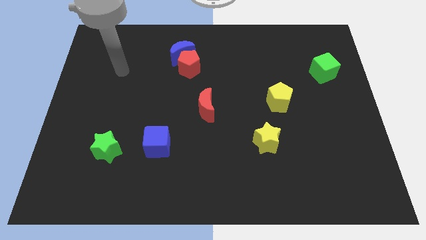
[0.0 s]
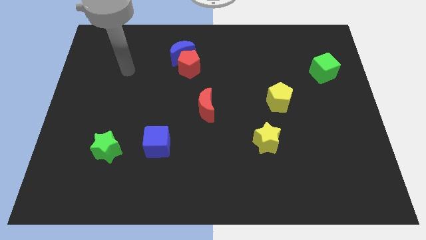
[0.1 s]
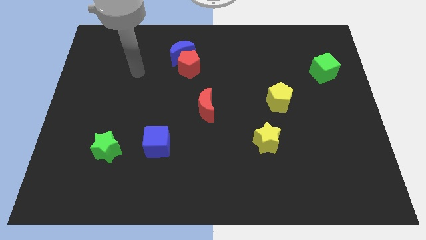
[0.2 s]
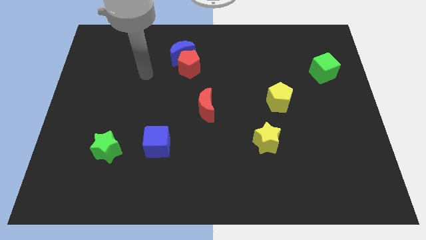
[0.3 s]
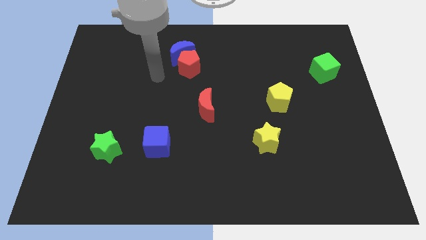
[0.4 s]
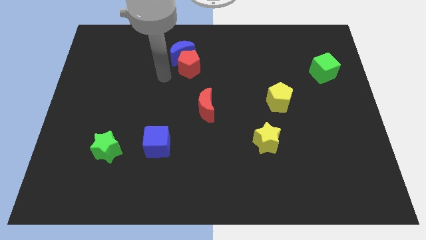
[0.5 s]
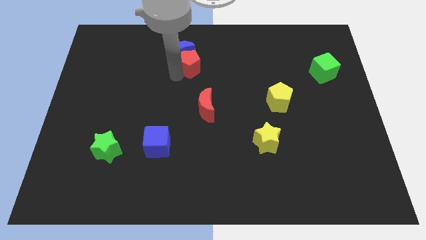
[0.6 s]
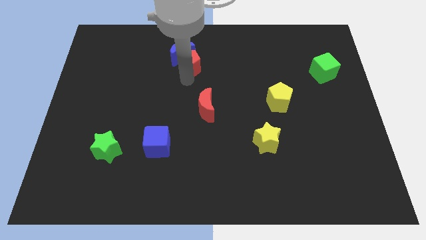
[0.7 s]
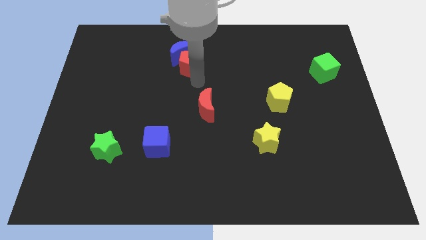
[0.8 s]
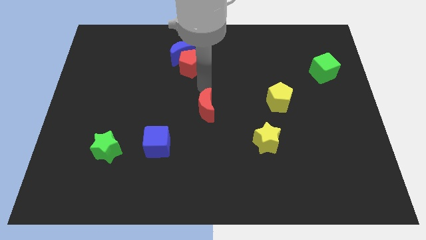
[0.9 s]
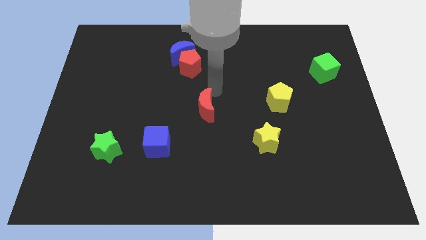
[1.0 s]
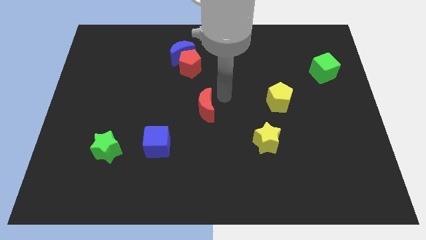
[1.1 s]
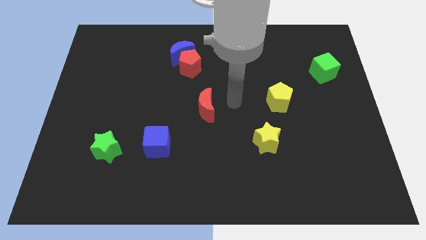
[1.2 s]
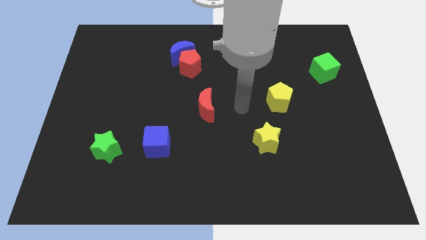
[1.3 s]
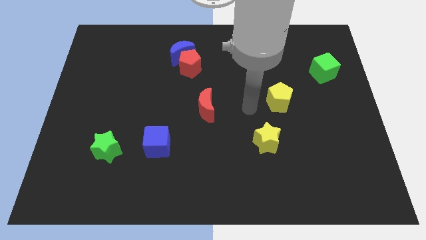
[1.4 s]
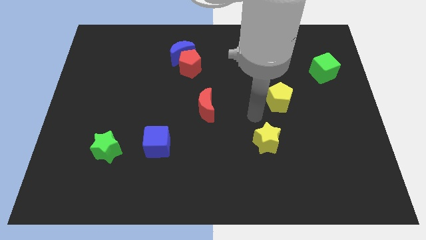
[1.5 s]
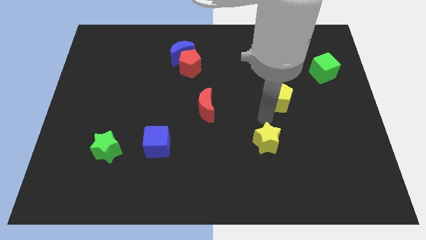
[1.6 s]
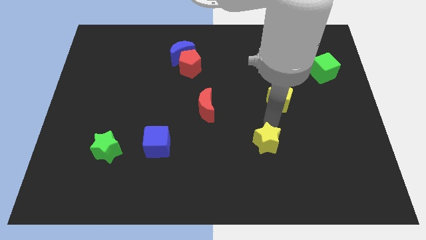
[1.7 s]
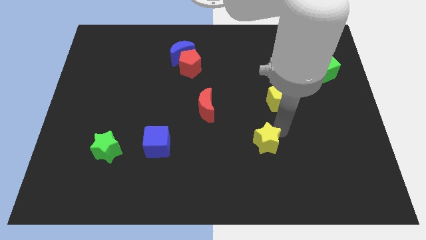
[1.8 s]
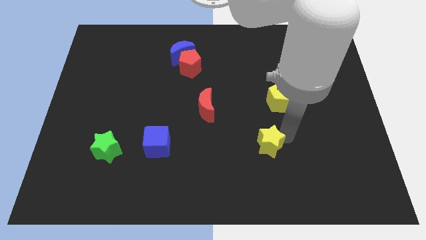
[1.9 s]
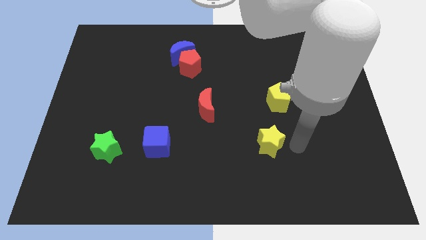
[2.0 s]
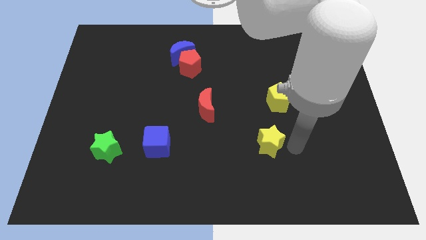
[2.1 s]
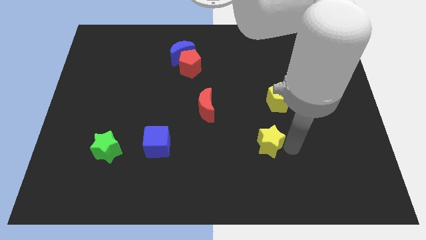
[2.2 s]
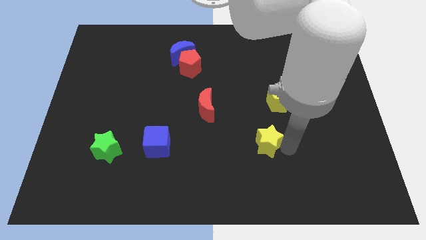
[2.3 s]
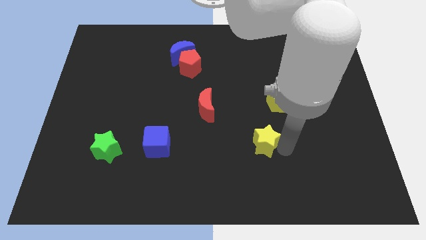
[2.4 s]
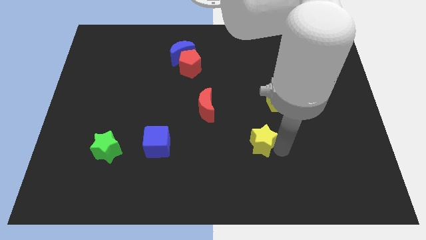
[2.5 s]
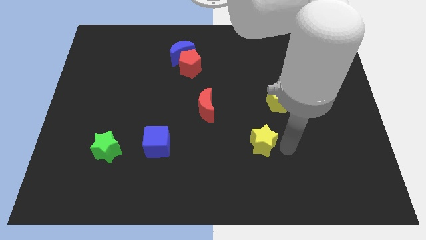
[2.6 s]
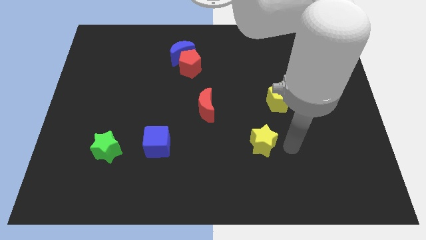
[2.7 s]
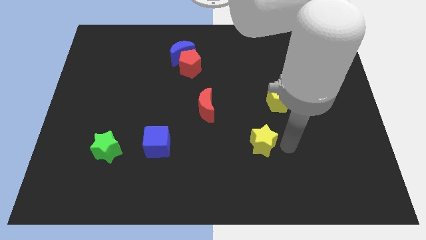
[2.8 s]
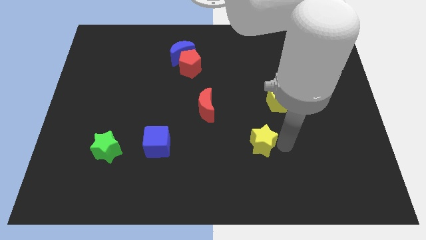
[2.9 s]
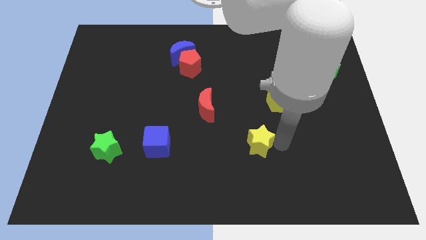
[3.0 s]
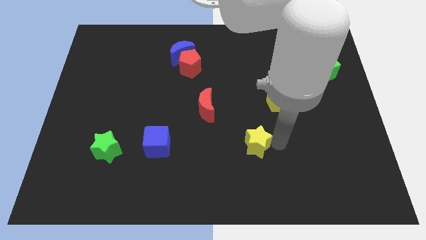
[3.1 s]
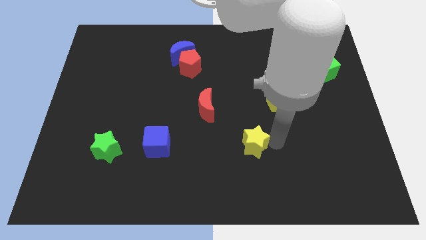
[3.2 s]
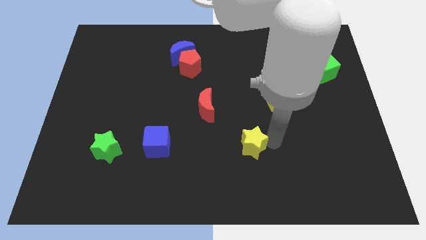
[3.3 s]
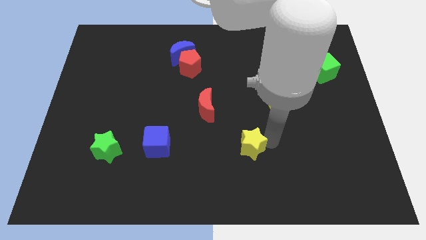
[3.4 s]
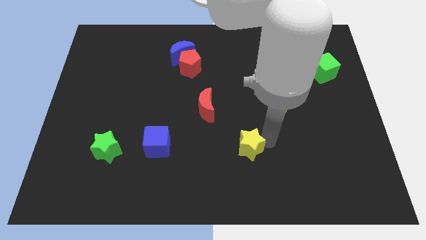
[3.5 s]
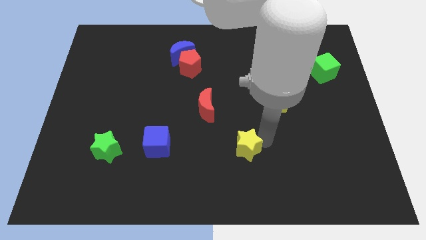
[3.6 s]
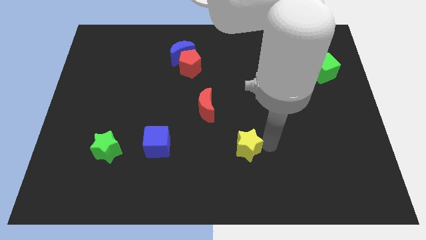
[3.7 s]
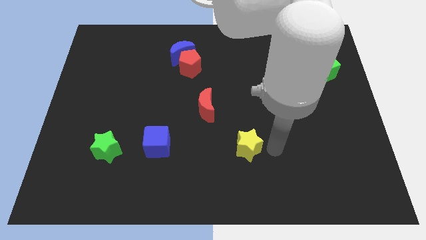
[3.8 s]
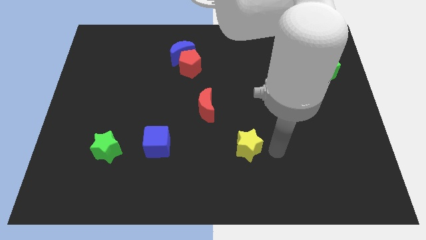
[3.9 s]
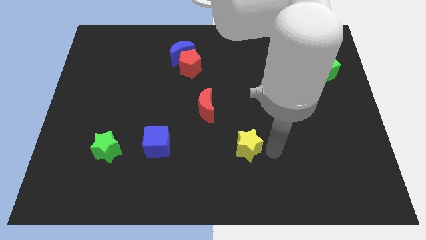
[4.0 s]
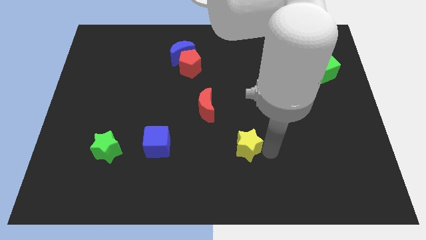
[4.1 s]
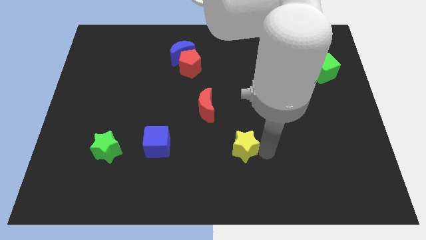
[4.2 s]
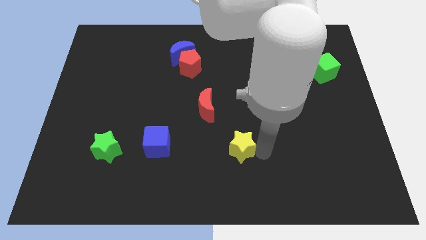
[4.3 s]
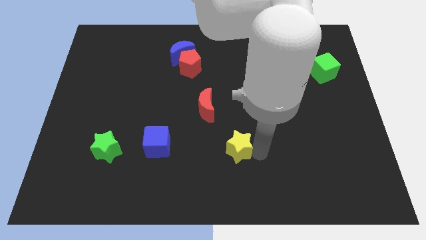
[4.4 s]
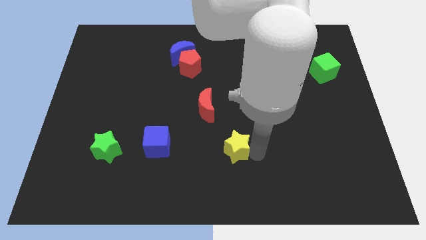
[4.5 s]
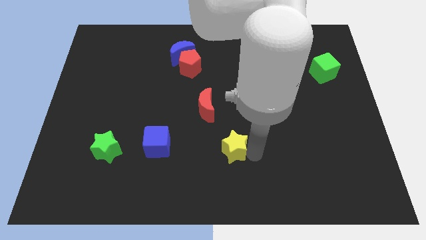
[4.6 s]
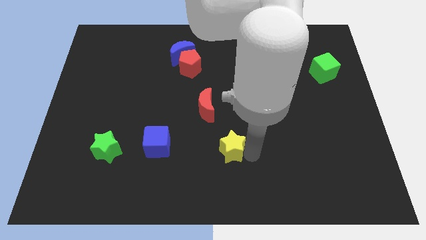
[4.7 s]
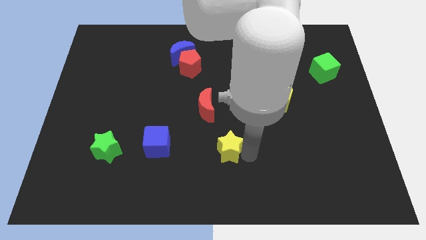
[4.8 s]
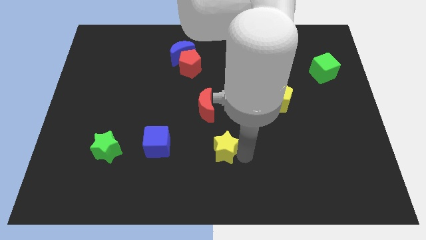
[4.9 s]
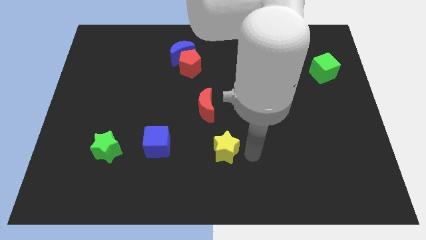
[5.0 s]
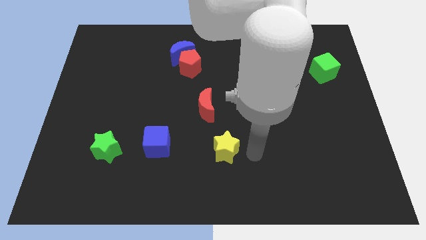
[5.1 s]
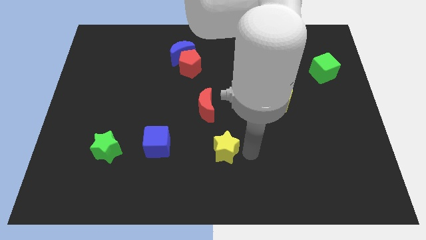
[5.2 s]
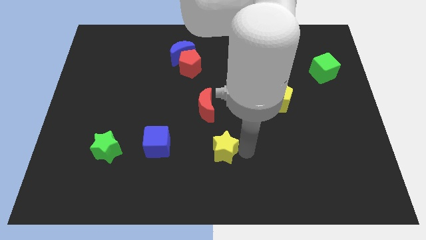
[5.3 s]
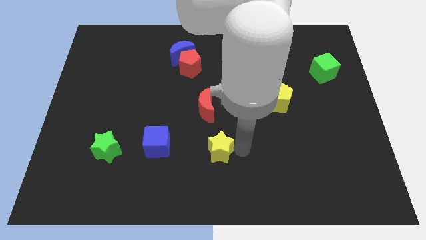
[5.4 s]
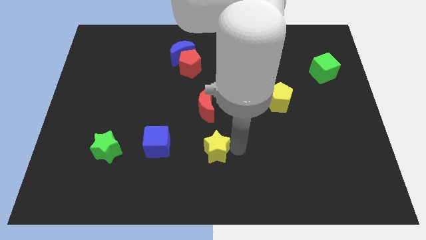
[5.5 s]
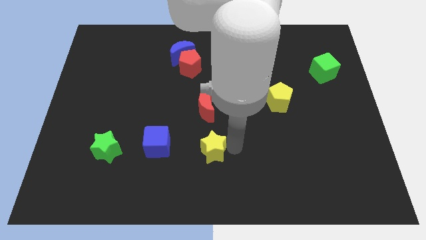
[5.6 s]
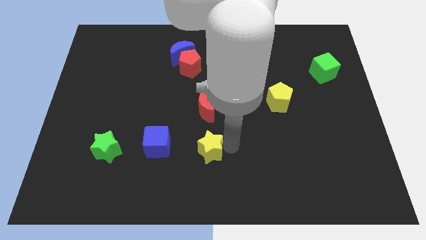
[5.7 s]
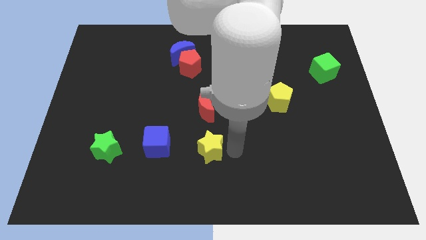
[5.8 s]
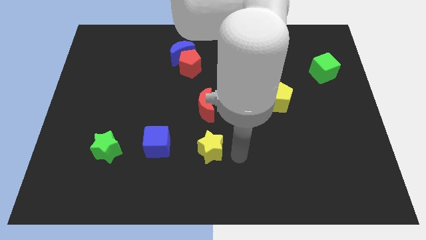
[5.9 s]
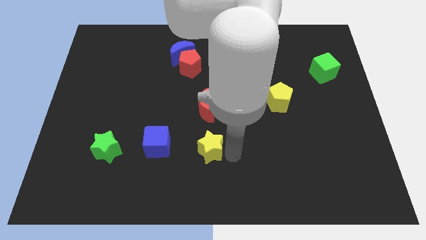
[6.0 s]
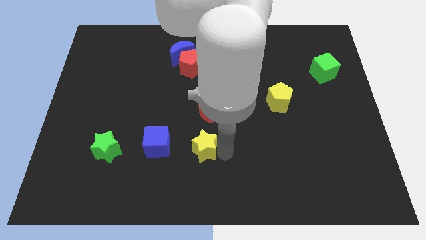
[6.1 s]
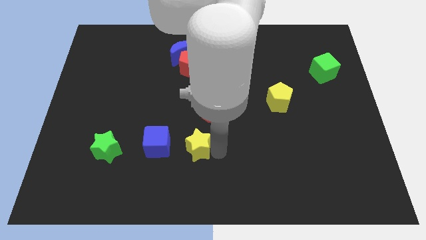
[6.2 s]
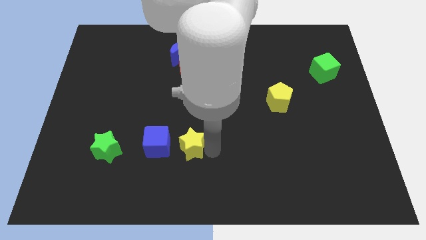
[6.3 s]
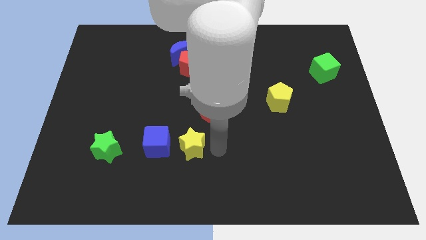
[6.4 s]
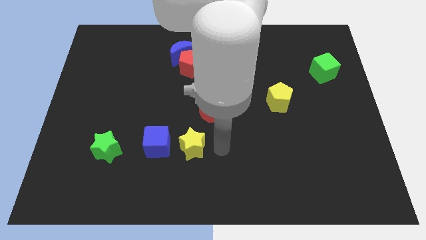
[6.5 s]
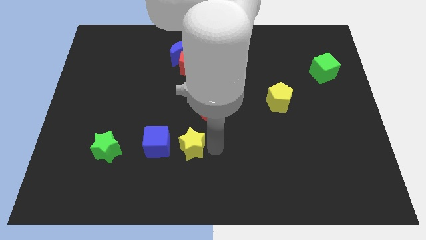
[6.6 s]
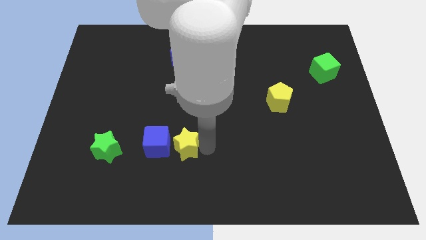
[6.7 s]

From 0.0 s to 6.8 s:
push the yellow star close to the blue cube

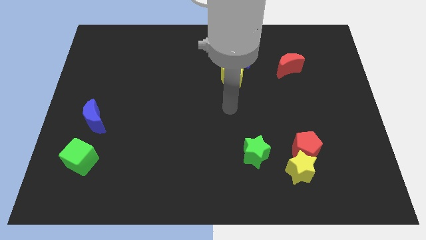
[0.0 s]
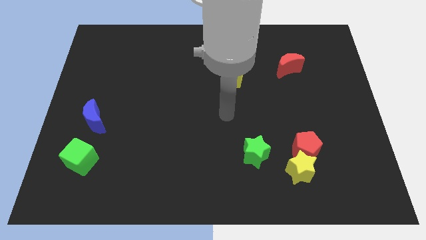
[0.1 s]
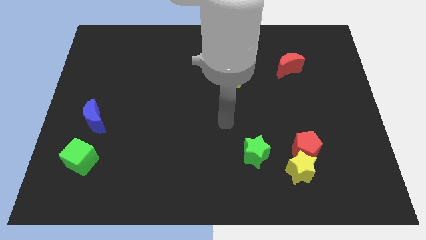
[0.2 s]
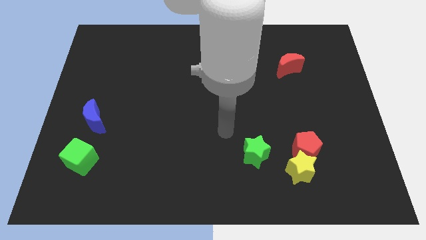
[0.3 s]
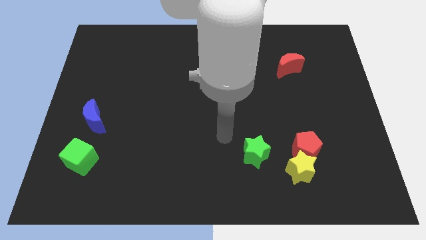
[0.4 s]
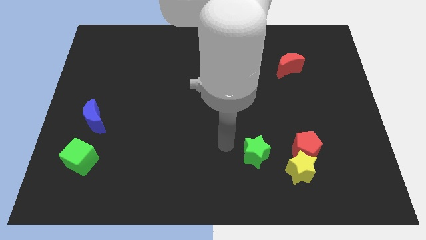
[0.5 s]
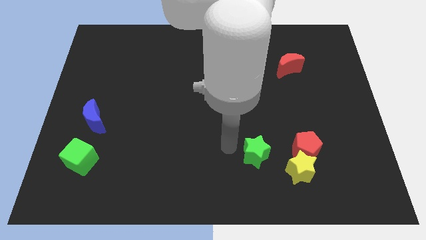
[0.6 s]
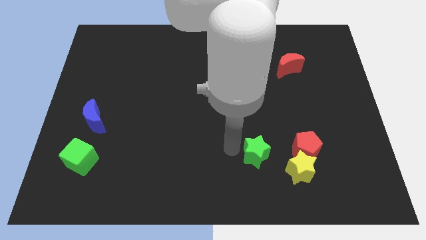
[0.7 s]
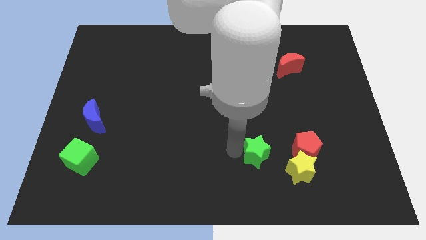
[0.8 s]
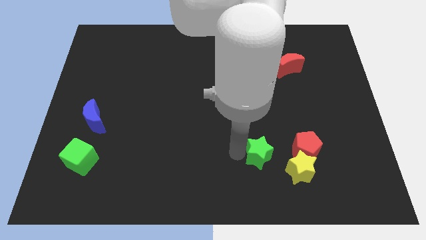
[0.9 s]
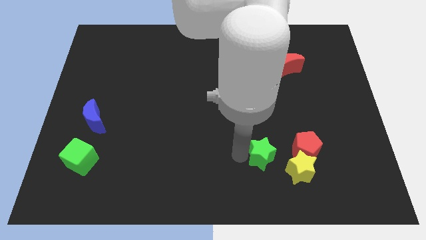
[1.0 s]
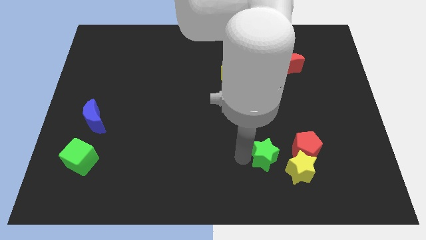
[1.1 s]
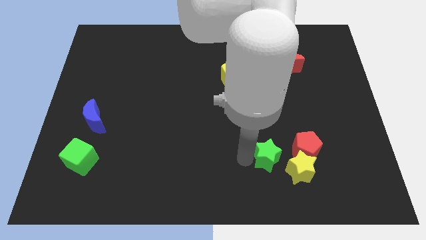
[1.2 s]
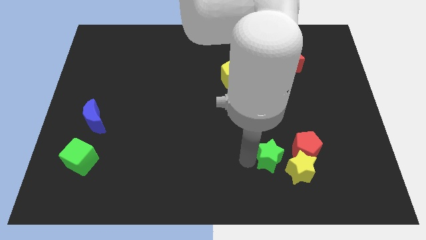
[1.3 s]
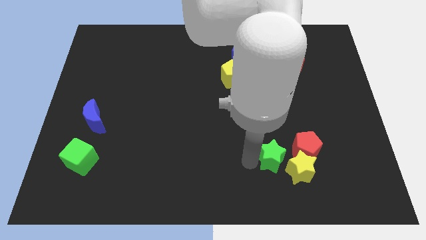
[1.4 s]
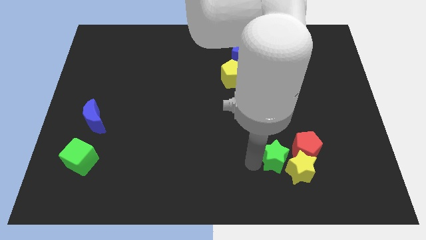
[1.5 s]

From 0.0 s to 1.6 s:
slide the green star close to the yellow star
